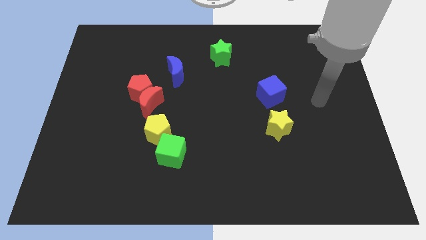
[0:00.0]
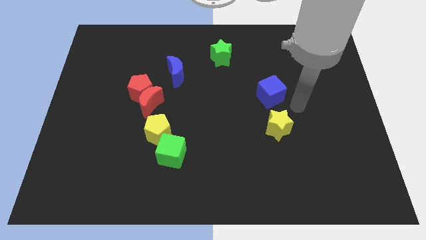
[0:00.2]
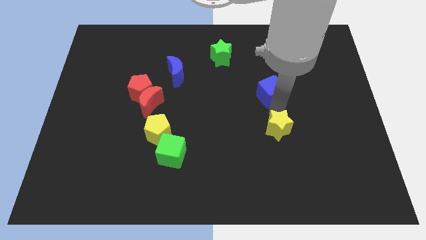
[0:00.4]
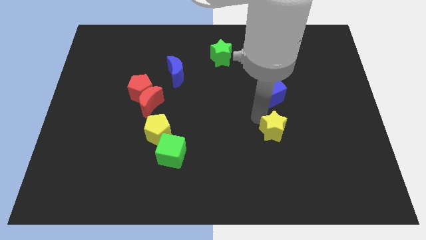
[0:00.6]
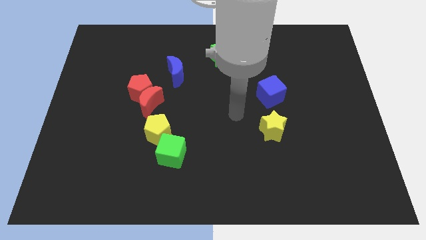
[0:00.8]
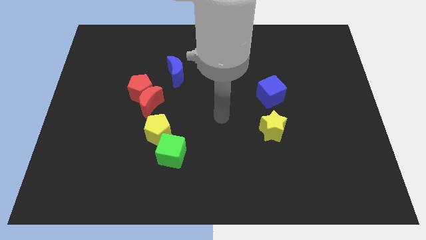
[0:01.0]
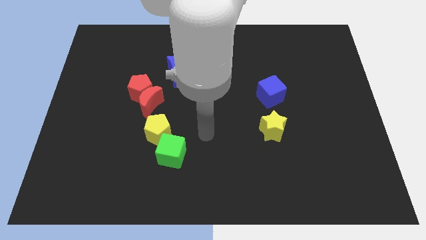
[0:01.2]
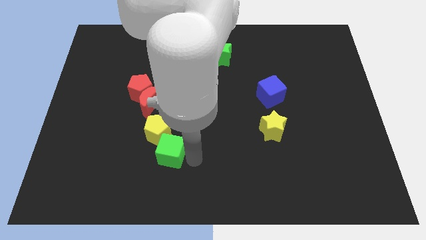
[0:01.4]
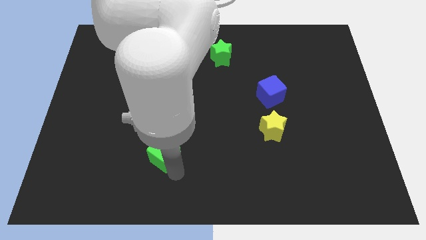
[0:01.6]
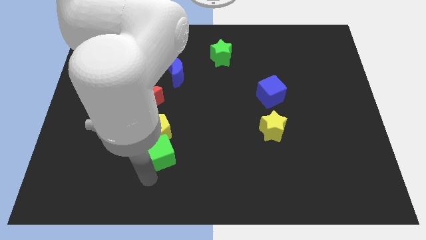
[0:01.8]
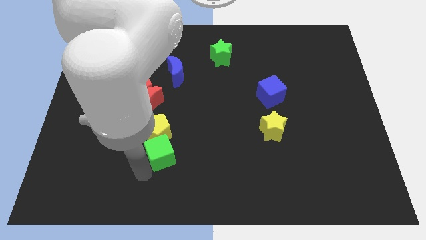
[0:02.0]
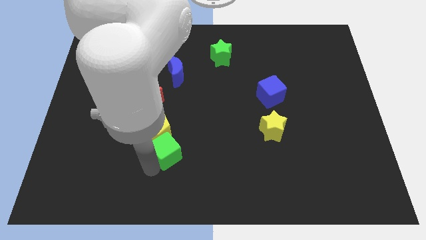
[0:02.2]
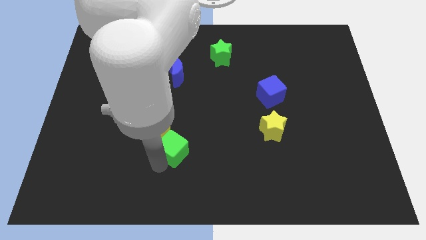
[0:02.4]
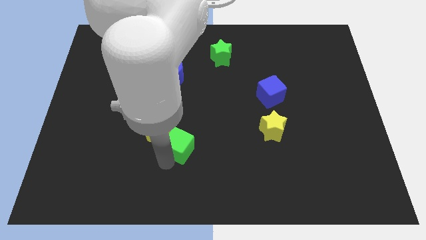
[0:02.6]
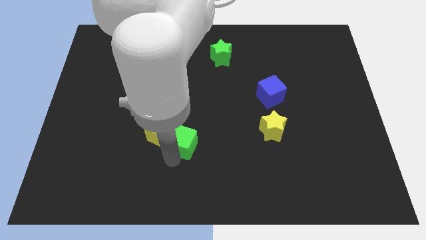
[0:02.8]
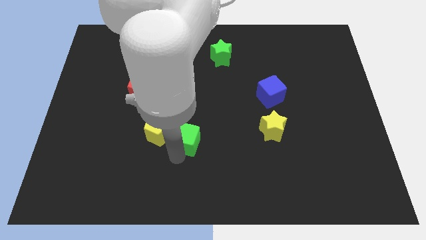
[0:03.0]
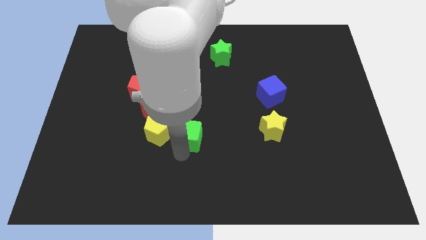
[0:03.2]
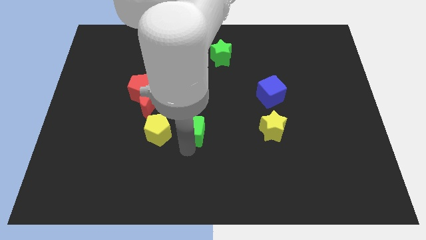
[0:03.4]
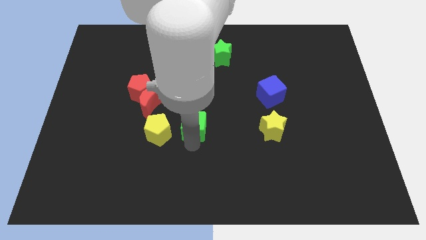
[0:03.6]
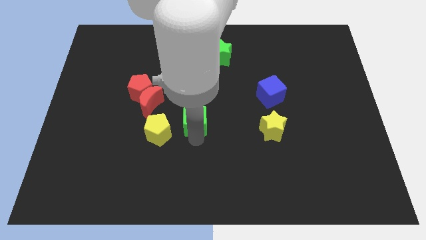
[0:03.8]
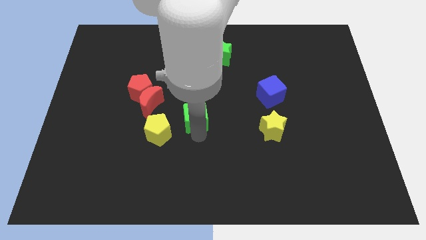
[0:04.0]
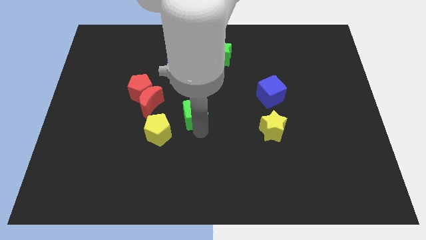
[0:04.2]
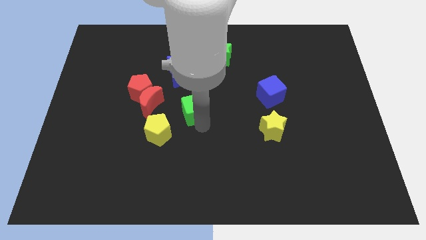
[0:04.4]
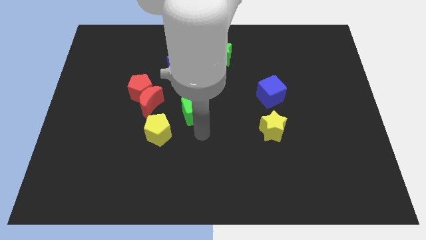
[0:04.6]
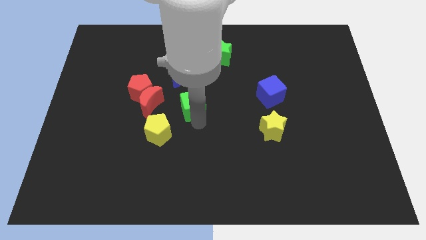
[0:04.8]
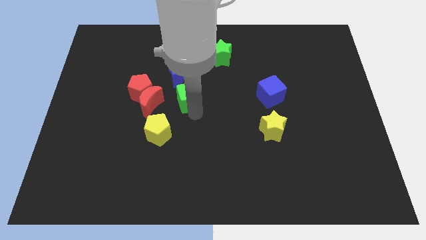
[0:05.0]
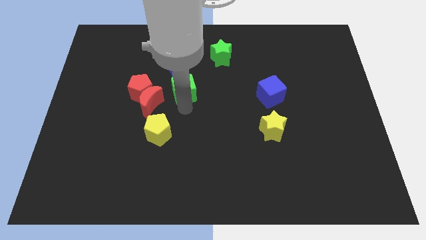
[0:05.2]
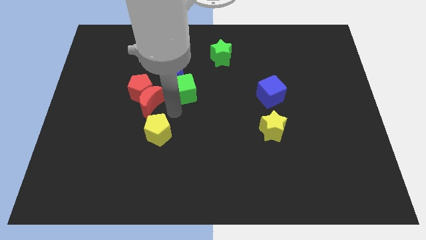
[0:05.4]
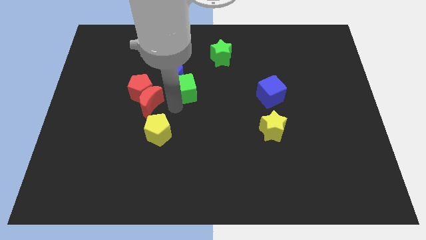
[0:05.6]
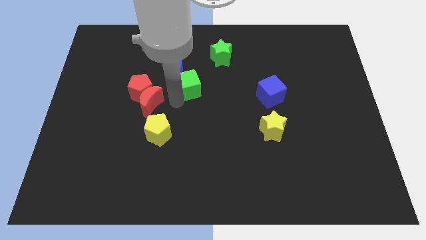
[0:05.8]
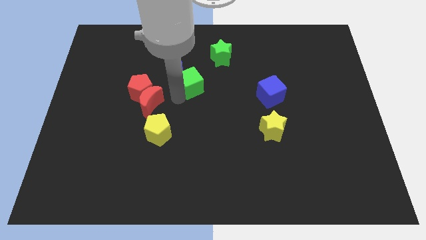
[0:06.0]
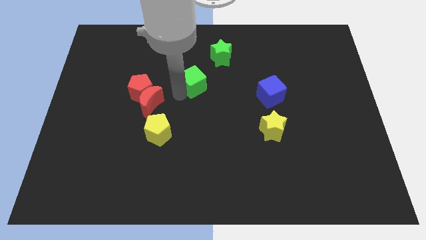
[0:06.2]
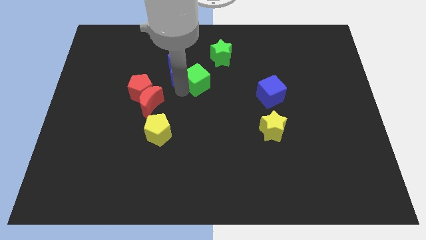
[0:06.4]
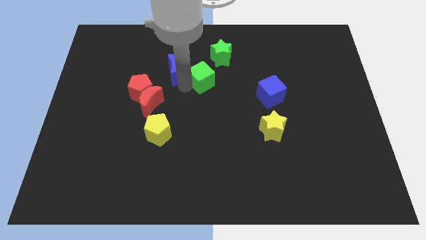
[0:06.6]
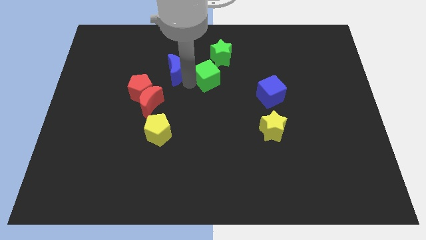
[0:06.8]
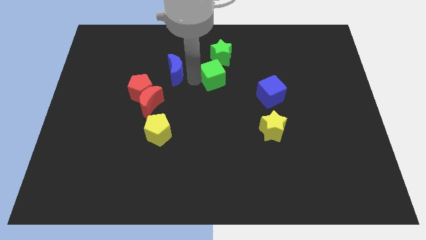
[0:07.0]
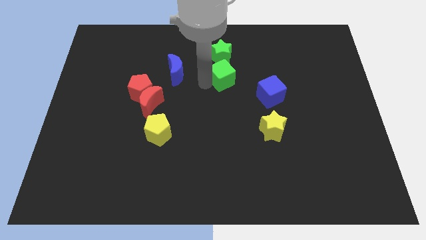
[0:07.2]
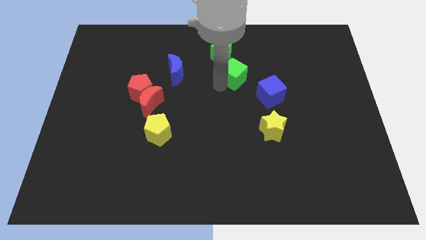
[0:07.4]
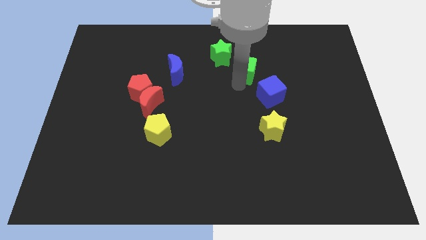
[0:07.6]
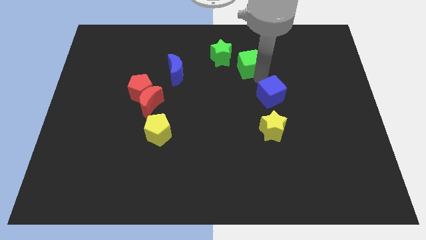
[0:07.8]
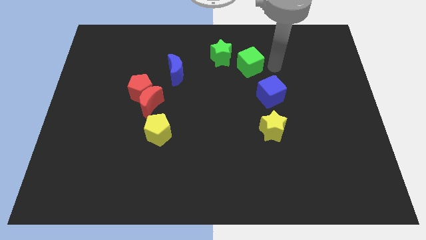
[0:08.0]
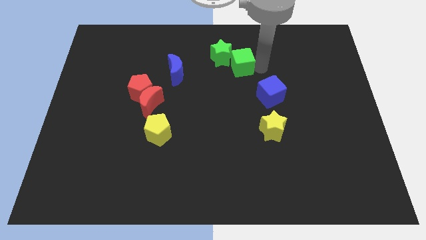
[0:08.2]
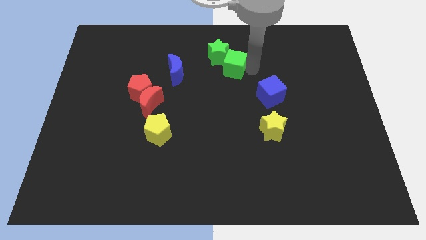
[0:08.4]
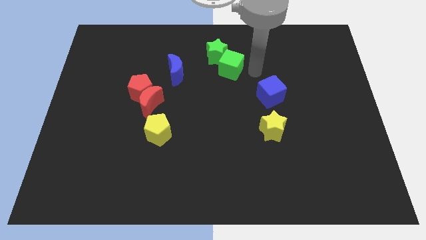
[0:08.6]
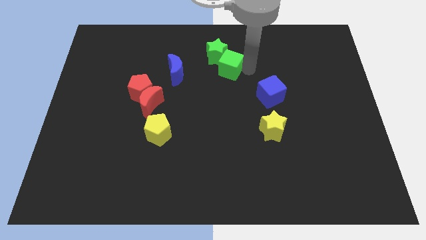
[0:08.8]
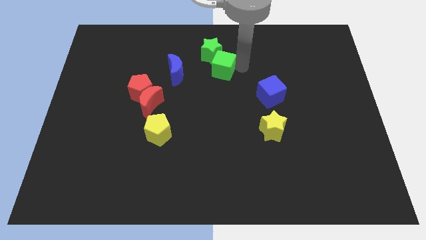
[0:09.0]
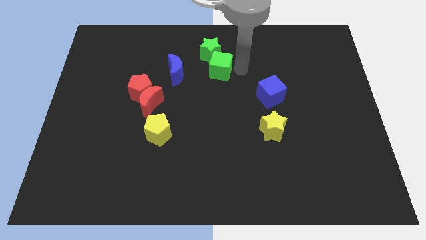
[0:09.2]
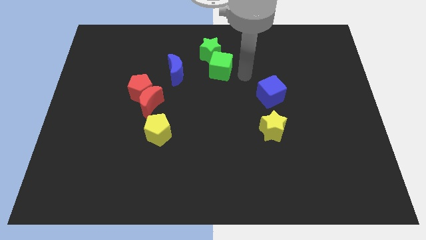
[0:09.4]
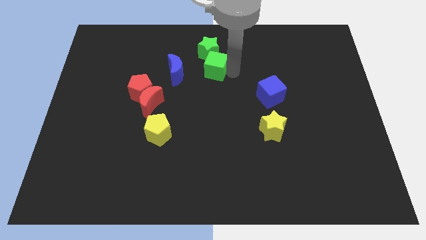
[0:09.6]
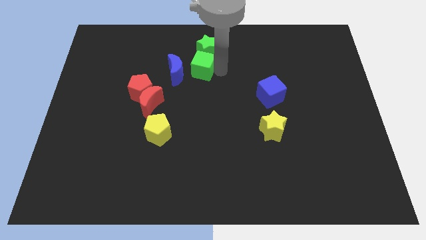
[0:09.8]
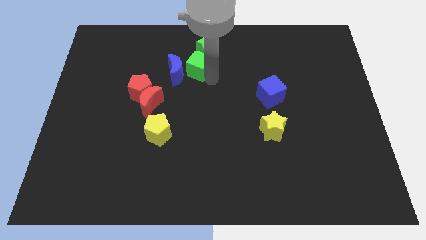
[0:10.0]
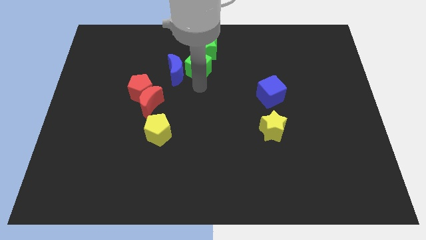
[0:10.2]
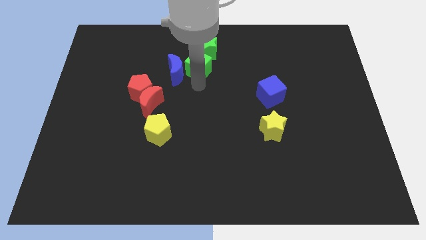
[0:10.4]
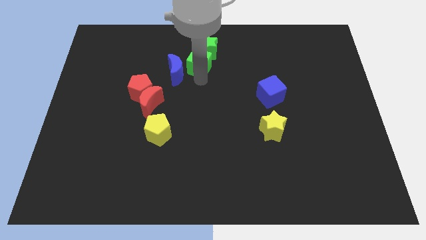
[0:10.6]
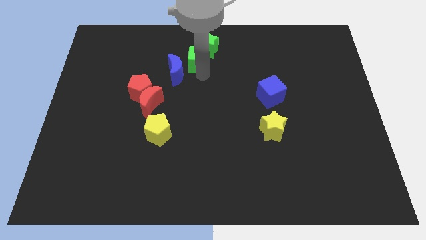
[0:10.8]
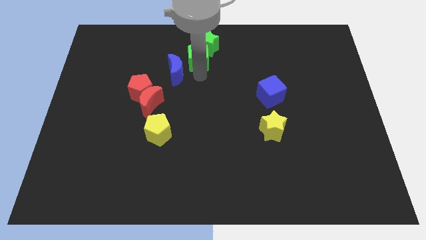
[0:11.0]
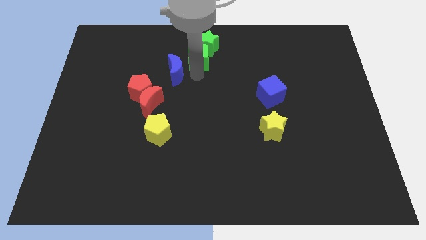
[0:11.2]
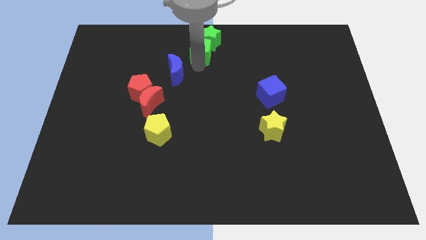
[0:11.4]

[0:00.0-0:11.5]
move the green cube to the top

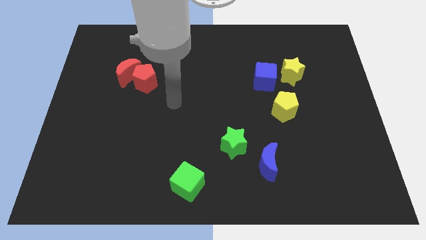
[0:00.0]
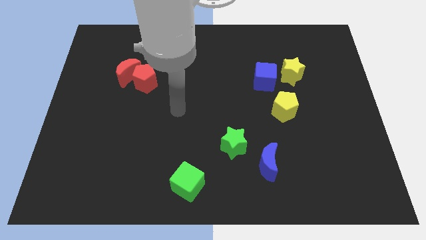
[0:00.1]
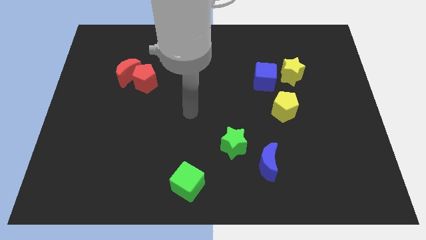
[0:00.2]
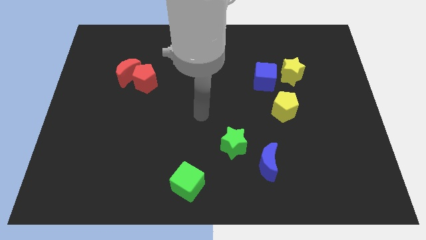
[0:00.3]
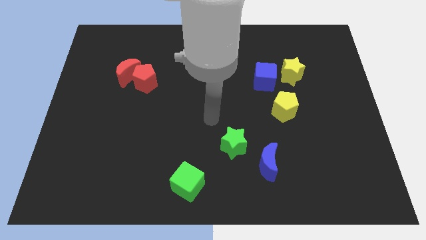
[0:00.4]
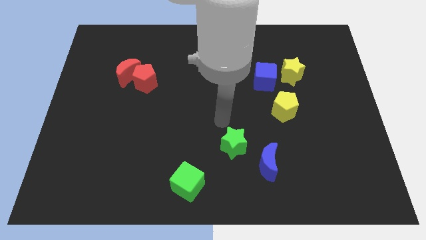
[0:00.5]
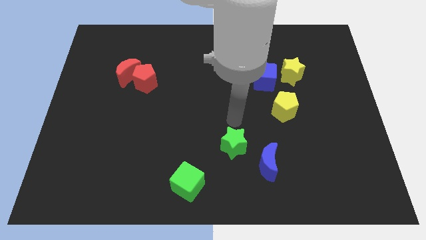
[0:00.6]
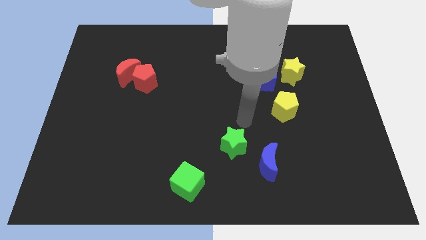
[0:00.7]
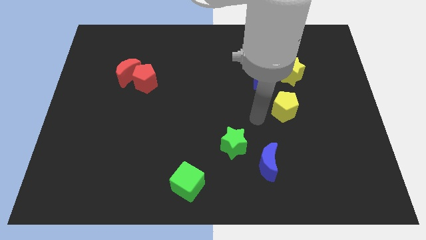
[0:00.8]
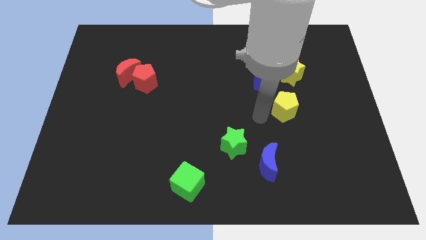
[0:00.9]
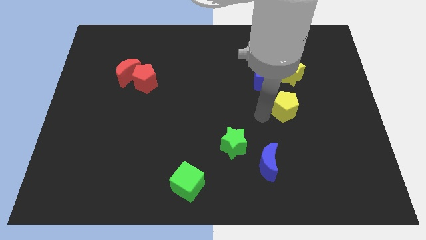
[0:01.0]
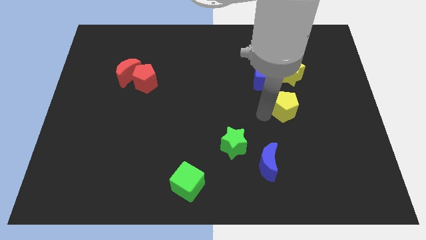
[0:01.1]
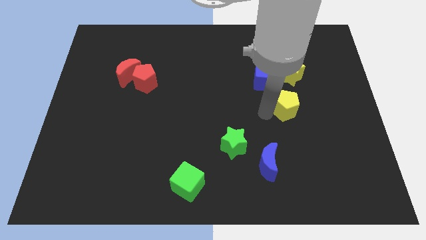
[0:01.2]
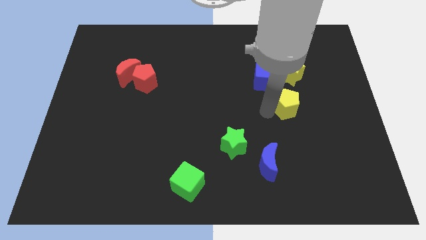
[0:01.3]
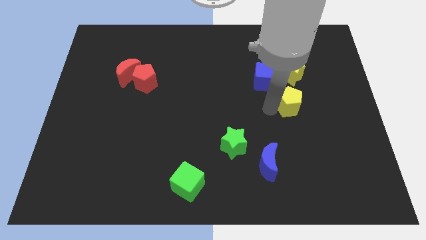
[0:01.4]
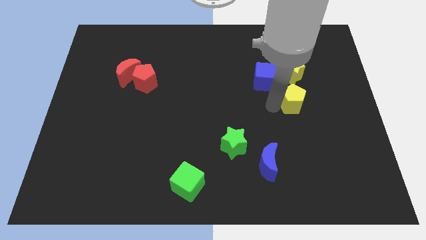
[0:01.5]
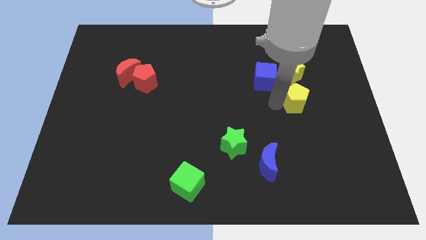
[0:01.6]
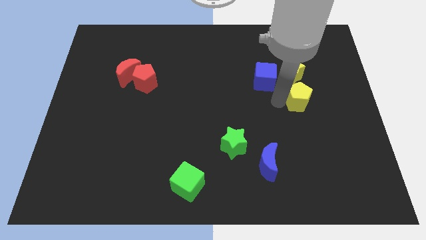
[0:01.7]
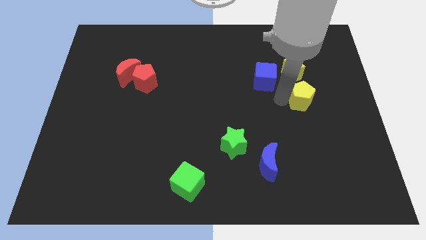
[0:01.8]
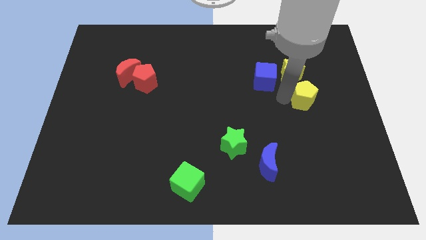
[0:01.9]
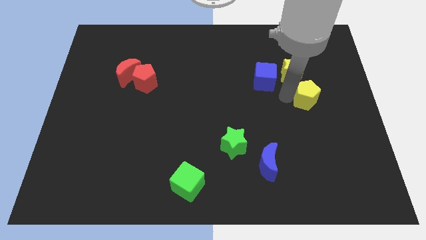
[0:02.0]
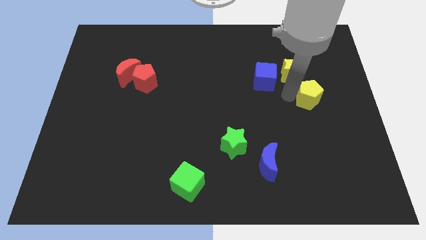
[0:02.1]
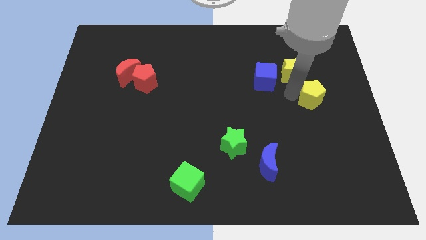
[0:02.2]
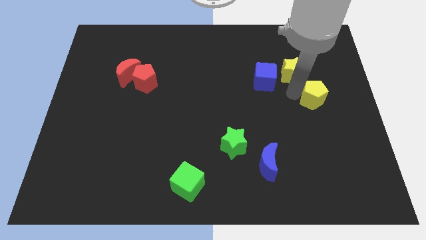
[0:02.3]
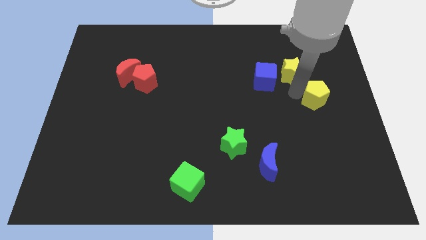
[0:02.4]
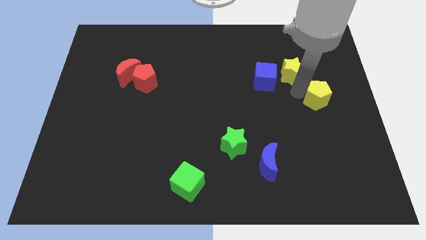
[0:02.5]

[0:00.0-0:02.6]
put the yellow pentagon to the center right
